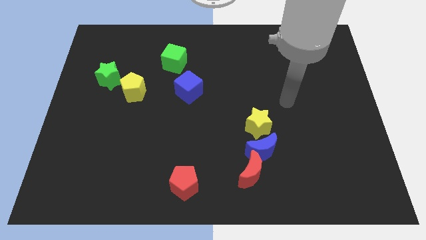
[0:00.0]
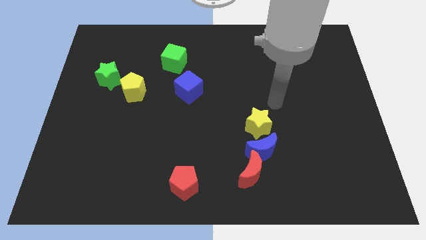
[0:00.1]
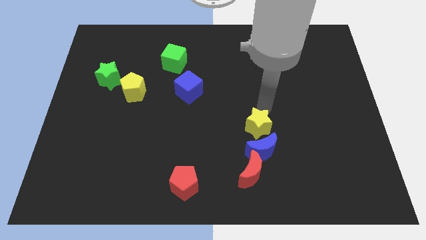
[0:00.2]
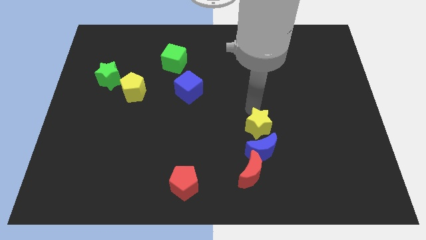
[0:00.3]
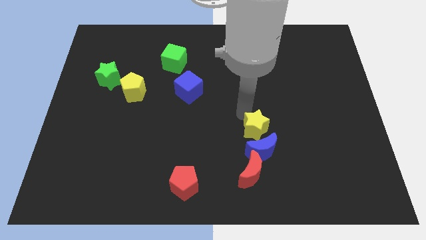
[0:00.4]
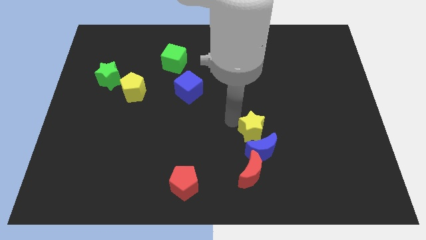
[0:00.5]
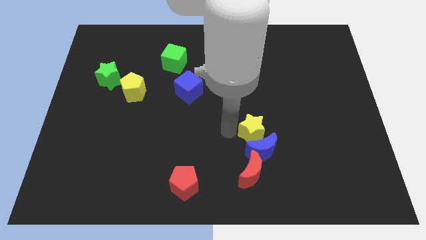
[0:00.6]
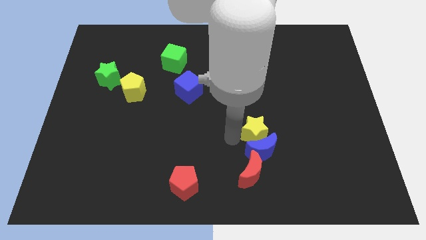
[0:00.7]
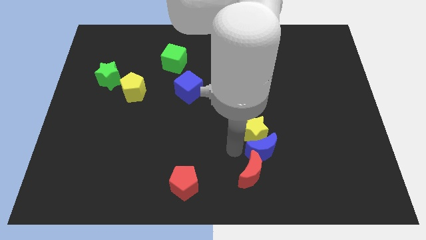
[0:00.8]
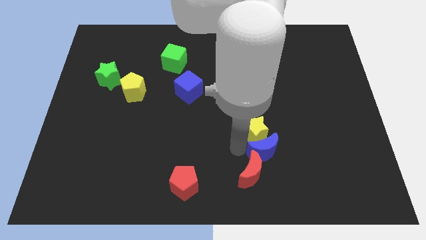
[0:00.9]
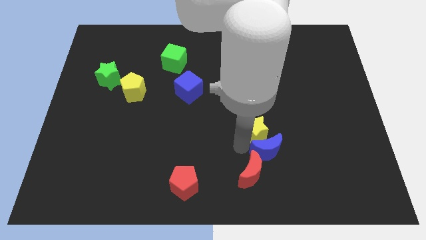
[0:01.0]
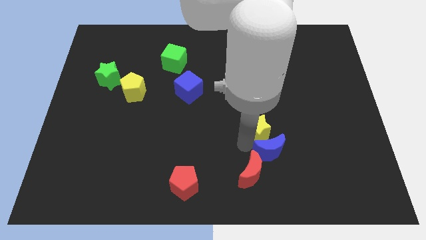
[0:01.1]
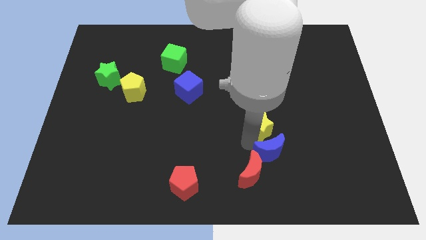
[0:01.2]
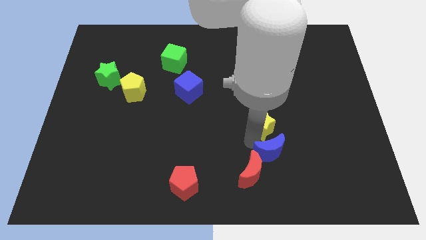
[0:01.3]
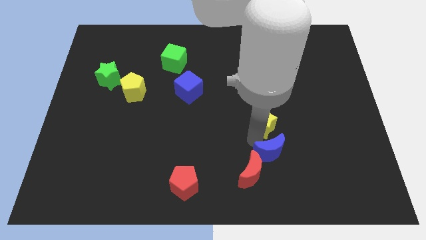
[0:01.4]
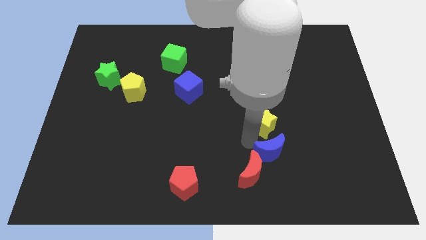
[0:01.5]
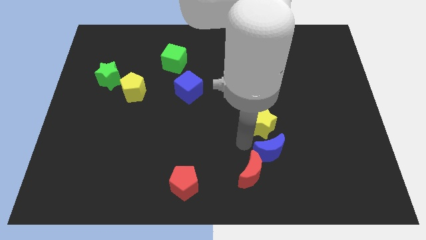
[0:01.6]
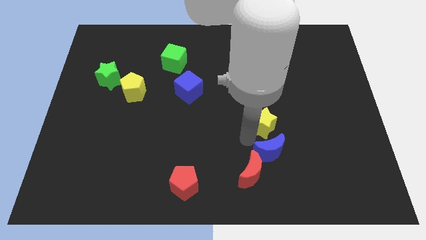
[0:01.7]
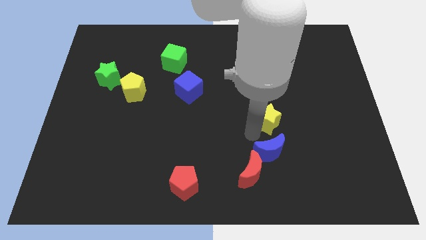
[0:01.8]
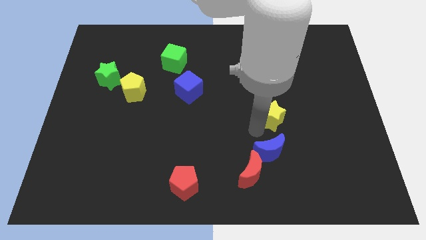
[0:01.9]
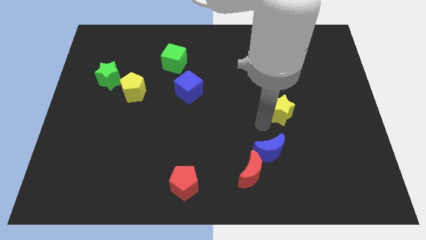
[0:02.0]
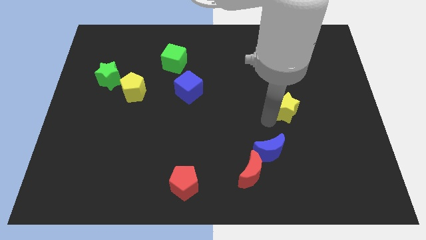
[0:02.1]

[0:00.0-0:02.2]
slide the yellow star a little bit diagonally up and to the right

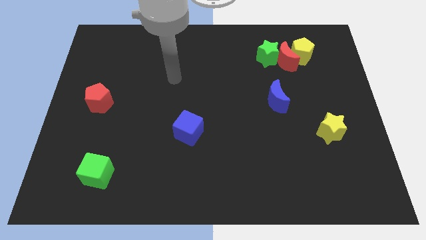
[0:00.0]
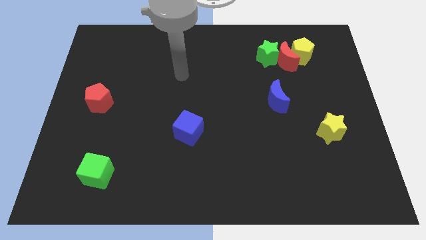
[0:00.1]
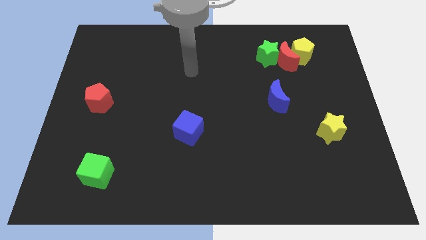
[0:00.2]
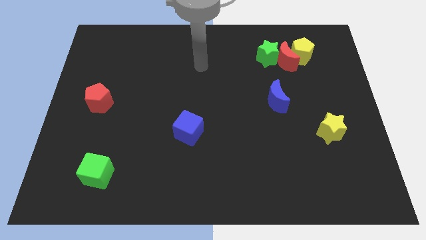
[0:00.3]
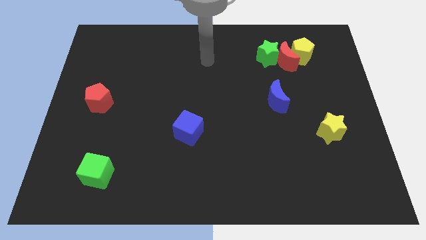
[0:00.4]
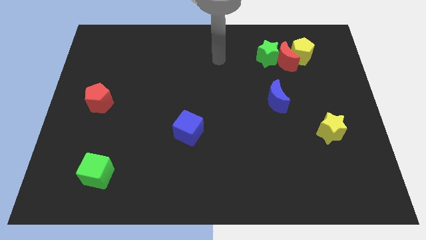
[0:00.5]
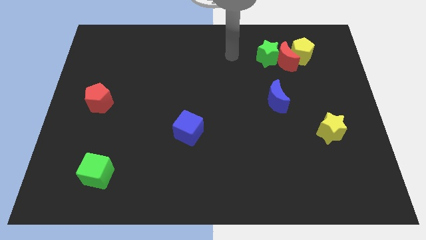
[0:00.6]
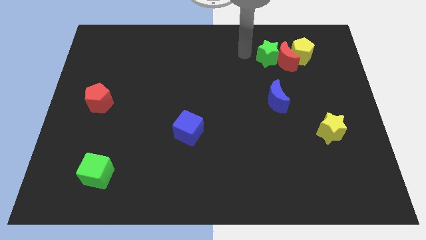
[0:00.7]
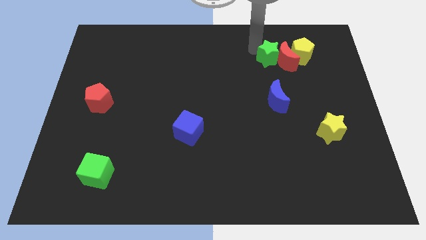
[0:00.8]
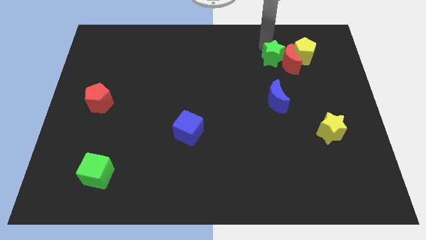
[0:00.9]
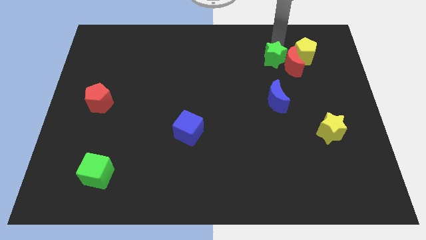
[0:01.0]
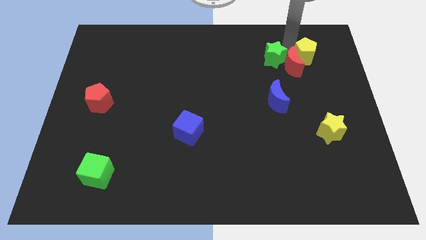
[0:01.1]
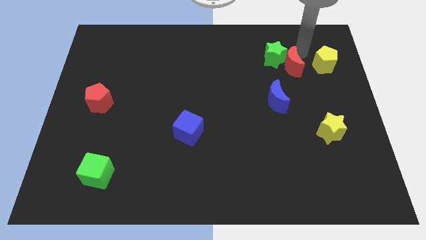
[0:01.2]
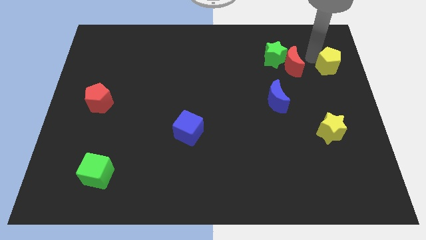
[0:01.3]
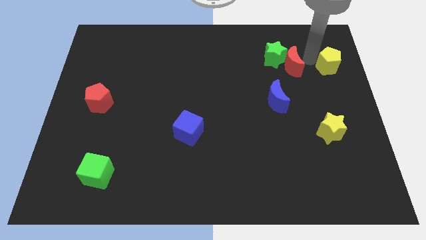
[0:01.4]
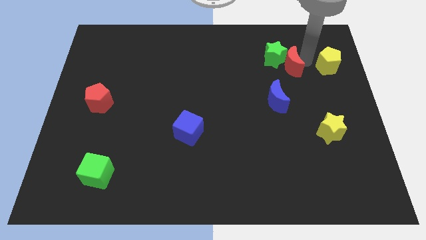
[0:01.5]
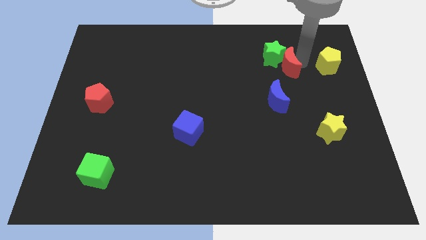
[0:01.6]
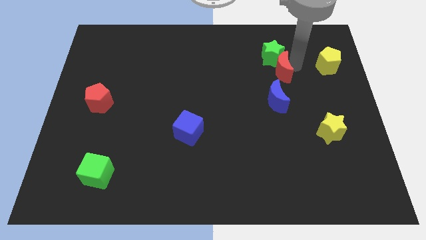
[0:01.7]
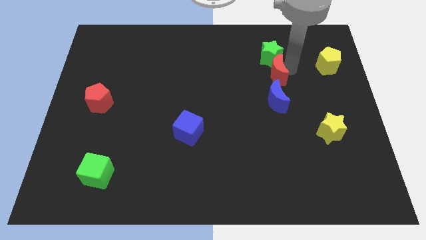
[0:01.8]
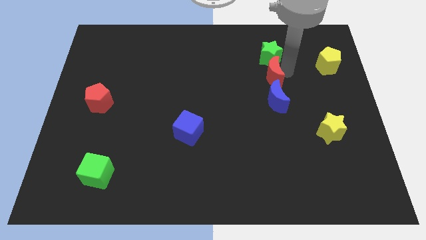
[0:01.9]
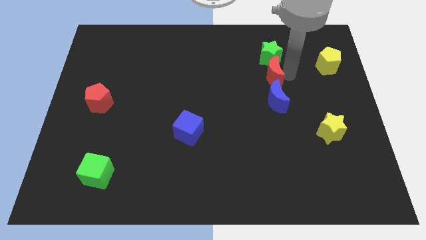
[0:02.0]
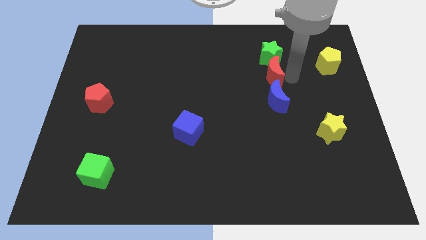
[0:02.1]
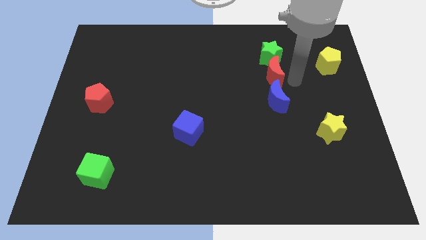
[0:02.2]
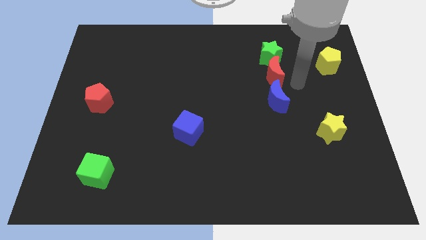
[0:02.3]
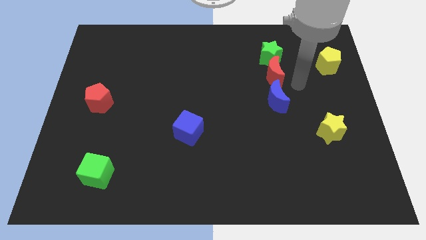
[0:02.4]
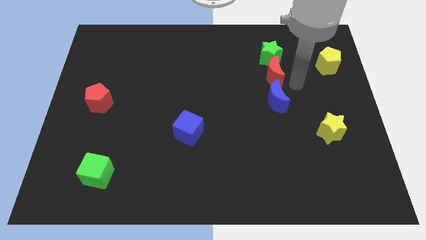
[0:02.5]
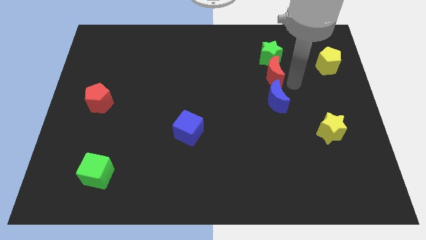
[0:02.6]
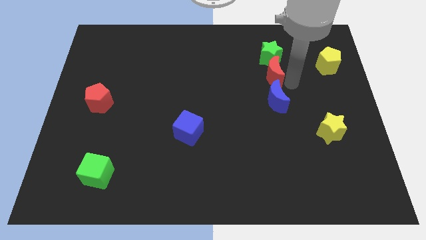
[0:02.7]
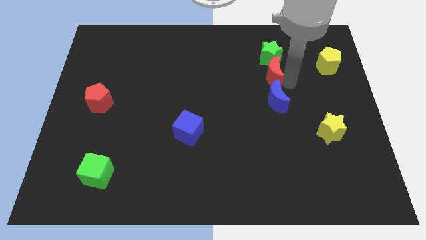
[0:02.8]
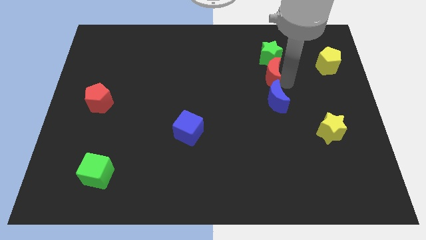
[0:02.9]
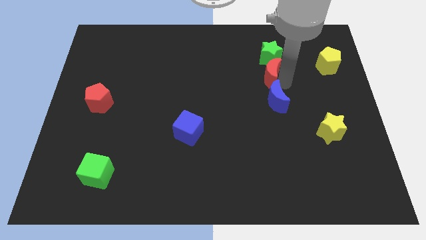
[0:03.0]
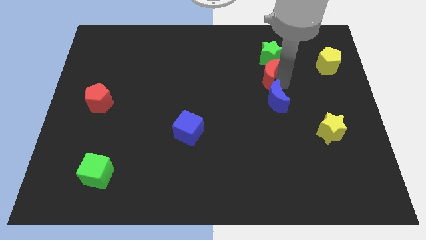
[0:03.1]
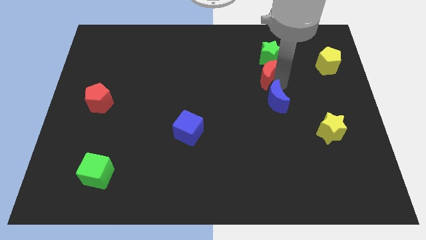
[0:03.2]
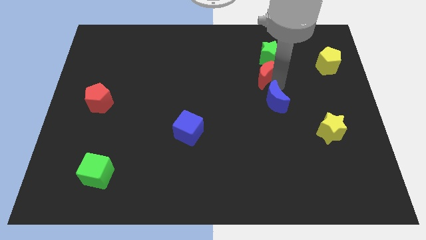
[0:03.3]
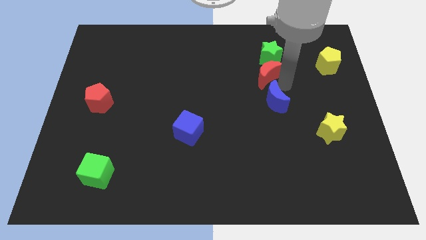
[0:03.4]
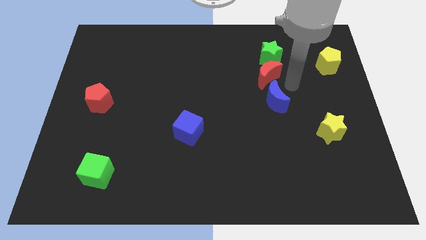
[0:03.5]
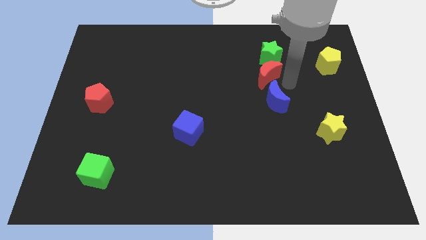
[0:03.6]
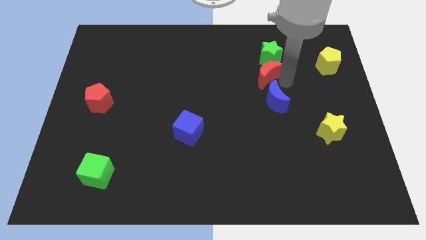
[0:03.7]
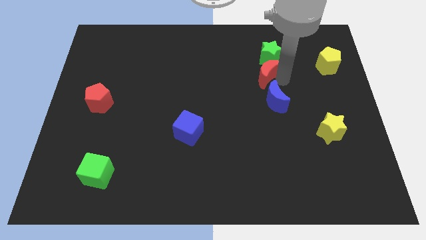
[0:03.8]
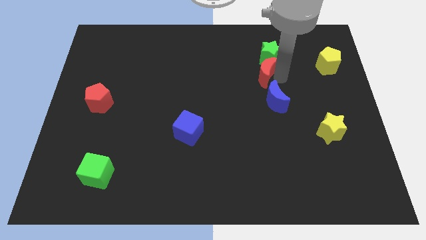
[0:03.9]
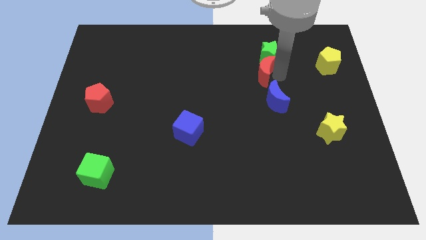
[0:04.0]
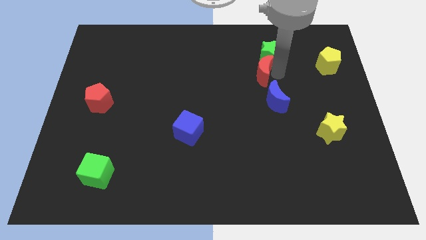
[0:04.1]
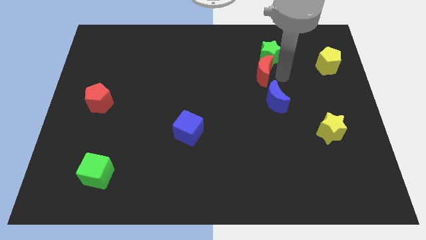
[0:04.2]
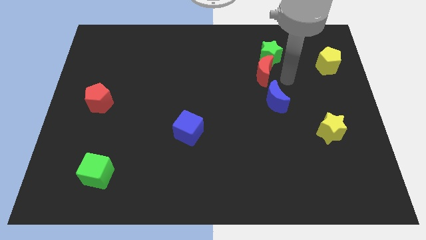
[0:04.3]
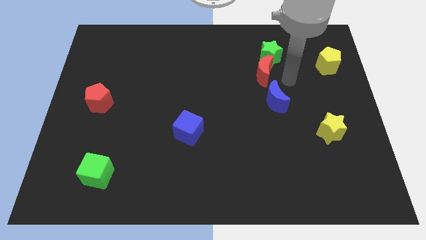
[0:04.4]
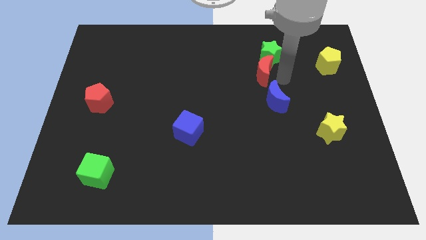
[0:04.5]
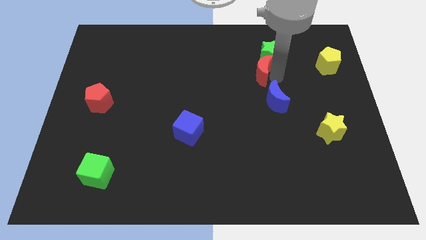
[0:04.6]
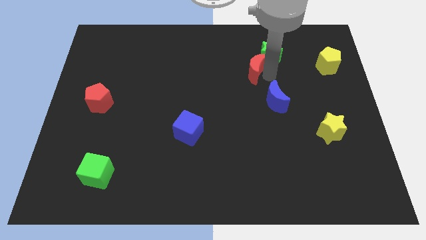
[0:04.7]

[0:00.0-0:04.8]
move the red moon a little bit left

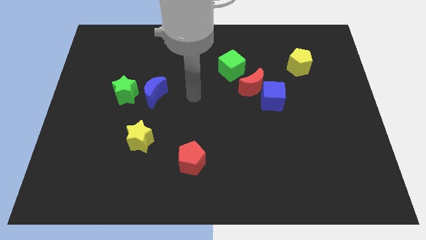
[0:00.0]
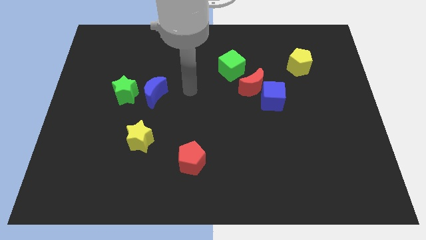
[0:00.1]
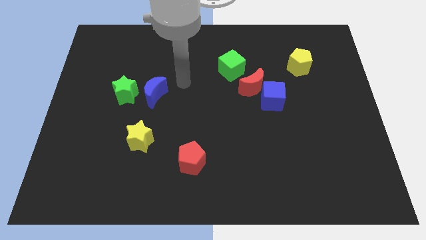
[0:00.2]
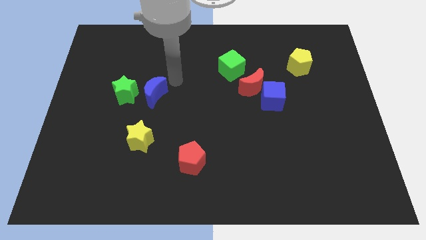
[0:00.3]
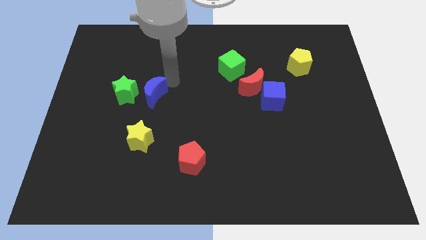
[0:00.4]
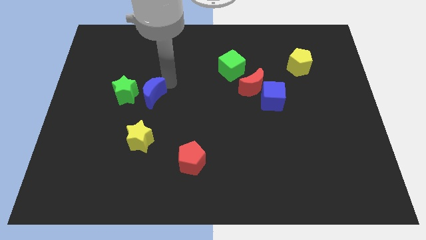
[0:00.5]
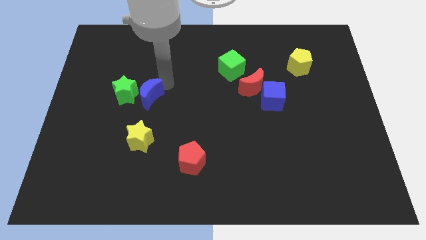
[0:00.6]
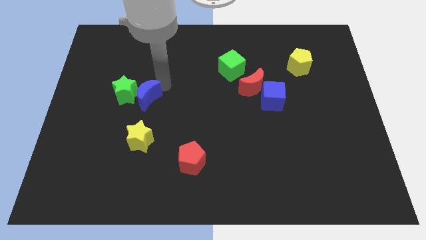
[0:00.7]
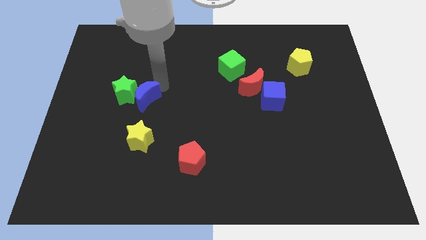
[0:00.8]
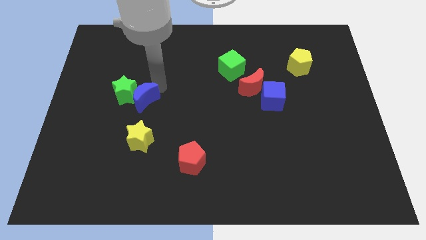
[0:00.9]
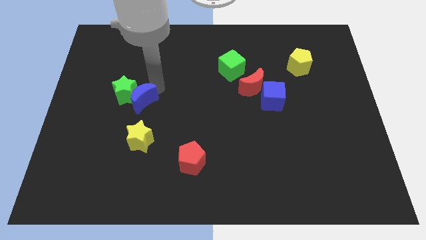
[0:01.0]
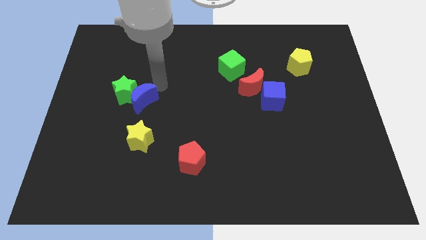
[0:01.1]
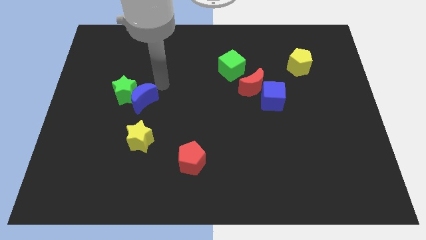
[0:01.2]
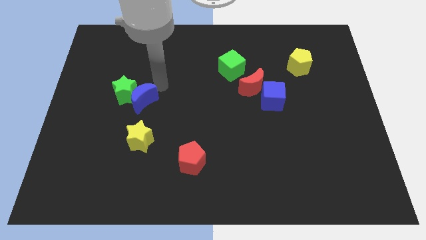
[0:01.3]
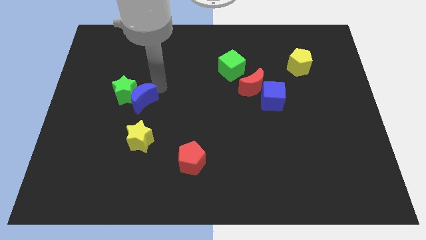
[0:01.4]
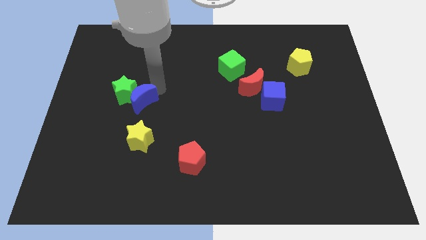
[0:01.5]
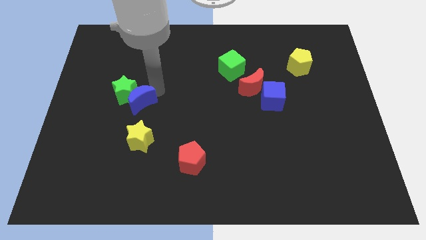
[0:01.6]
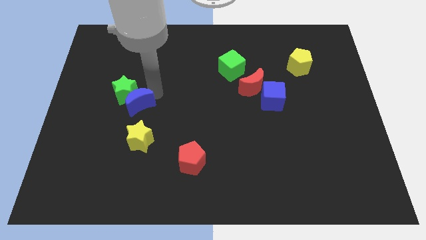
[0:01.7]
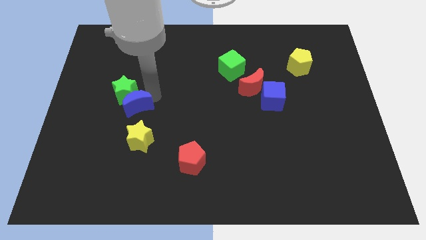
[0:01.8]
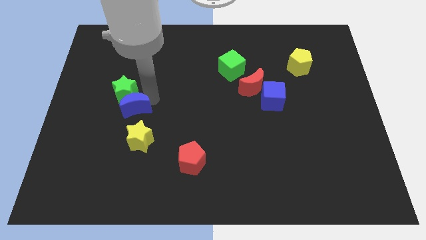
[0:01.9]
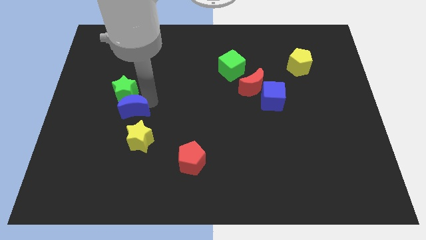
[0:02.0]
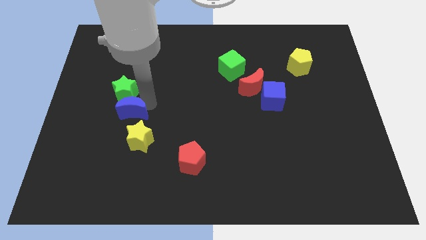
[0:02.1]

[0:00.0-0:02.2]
slightly slide the blue moon downwards and to the left diagonally
